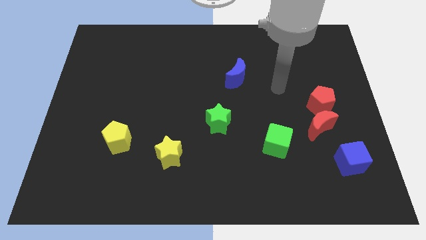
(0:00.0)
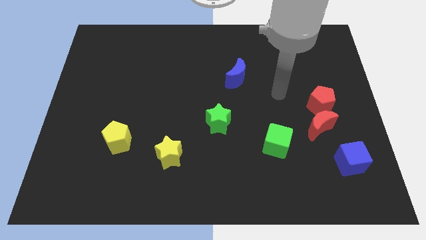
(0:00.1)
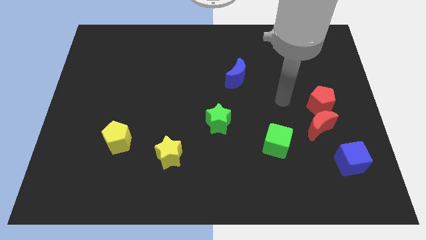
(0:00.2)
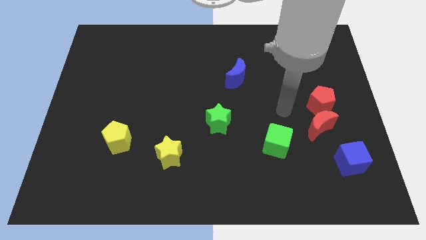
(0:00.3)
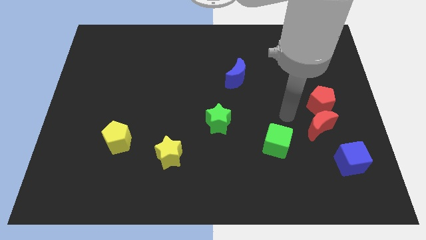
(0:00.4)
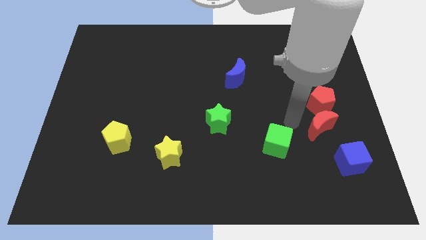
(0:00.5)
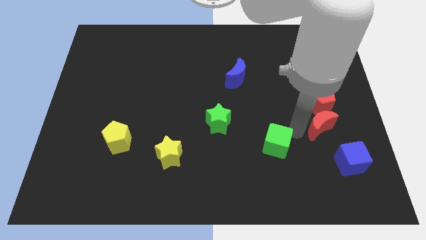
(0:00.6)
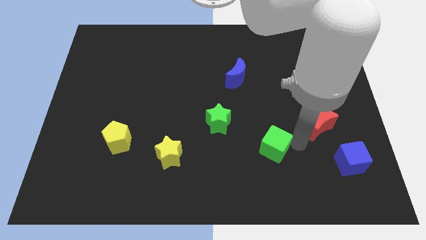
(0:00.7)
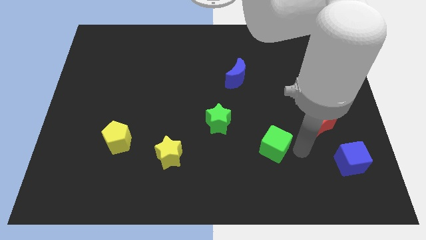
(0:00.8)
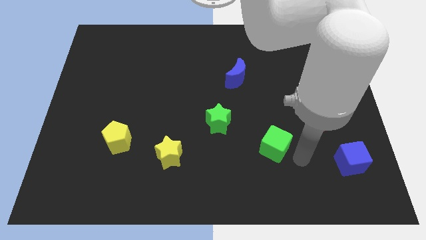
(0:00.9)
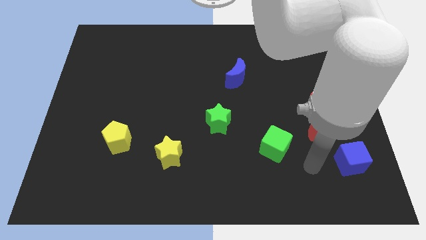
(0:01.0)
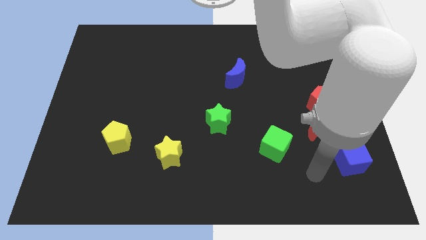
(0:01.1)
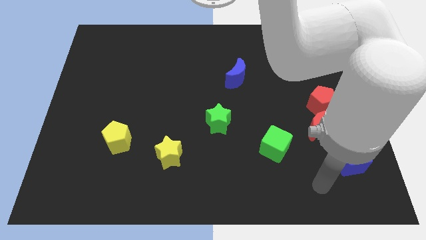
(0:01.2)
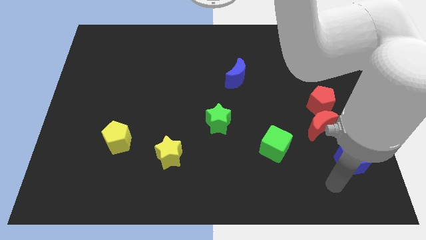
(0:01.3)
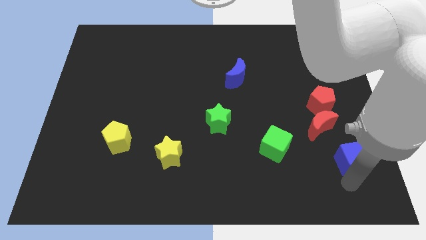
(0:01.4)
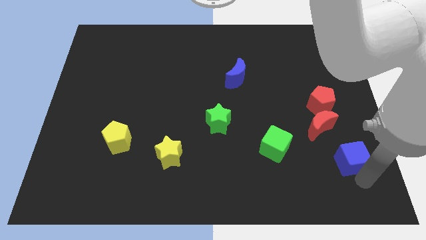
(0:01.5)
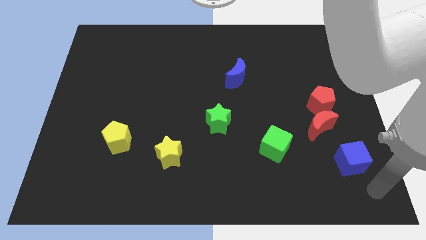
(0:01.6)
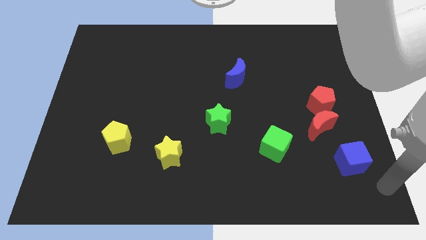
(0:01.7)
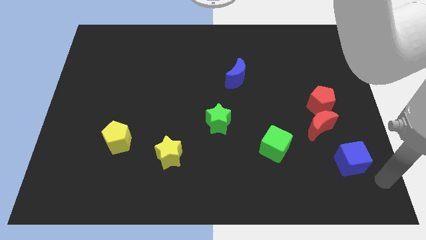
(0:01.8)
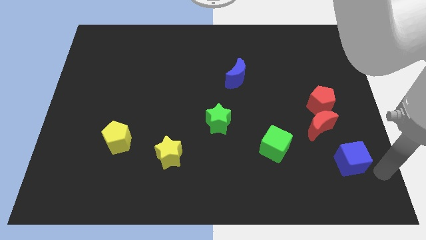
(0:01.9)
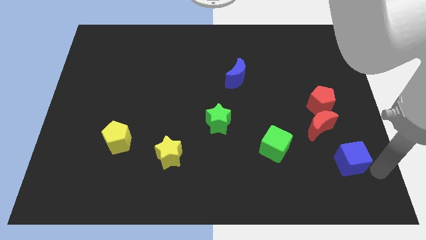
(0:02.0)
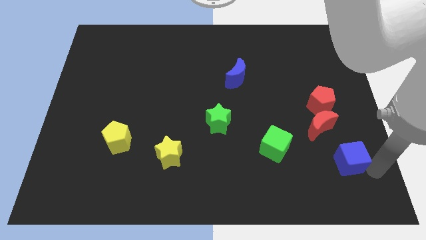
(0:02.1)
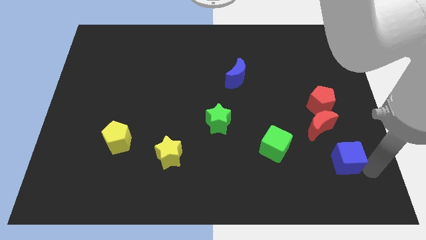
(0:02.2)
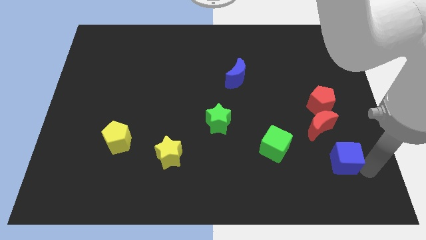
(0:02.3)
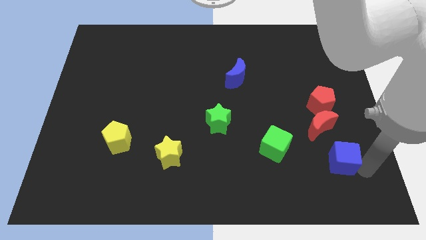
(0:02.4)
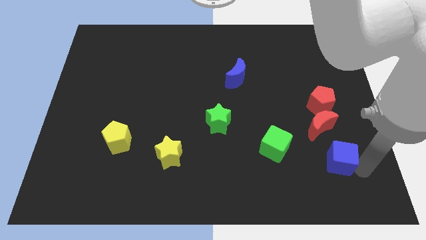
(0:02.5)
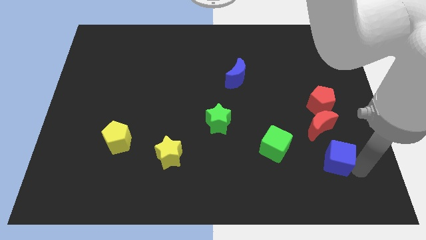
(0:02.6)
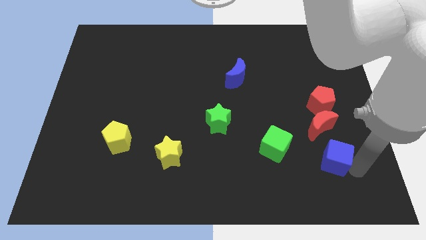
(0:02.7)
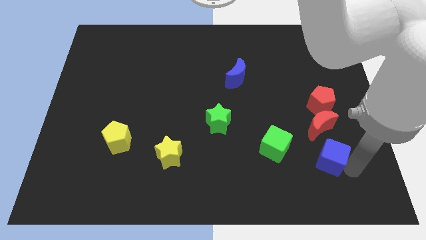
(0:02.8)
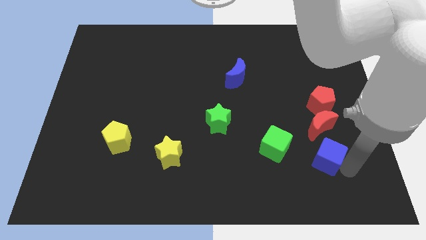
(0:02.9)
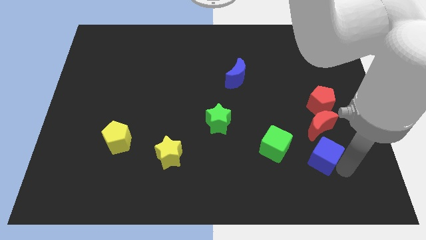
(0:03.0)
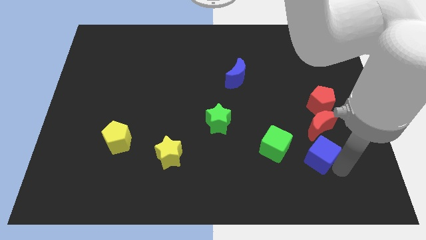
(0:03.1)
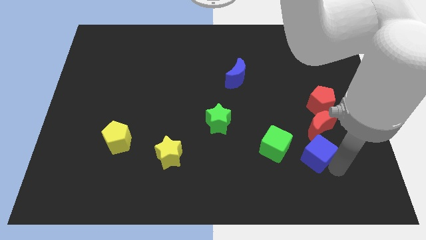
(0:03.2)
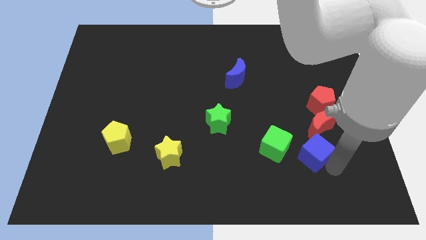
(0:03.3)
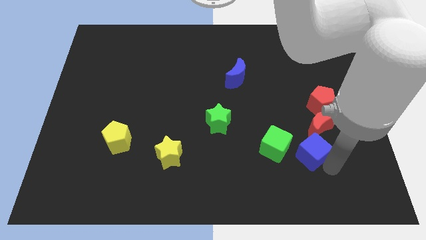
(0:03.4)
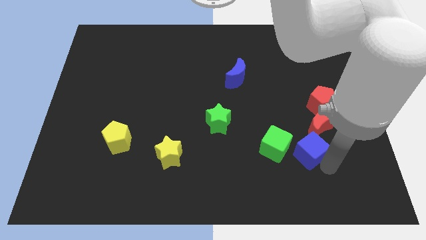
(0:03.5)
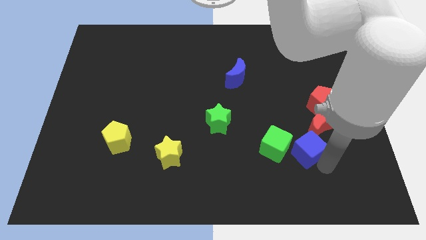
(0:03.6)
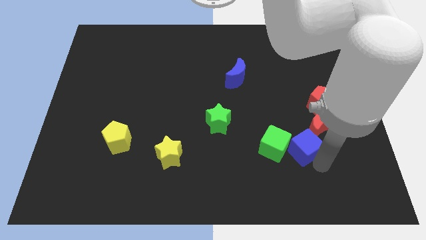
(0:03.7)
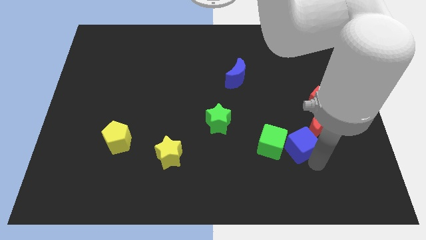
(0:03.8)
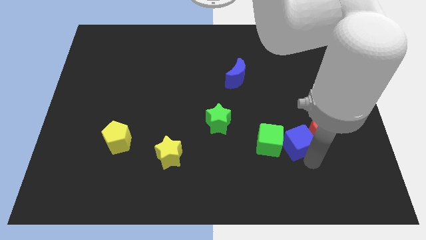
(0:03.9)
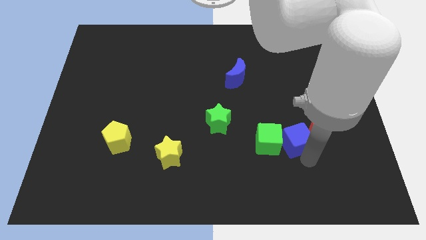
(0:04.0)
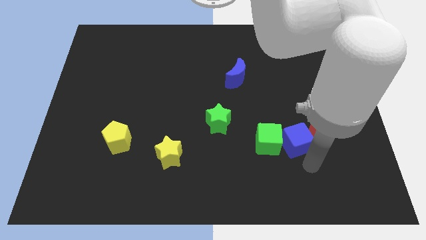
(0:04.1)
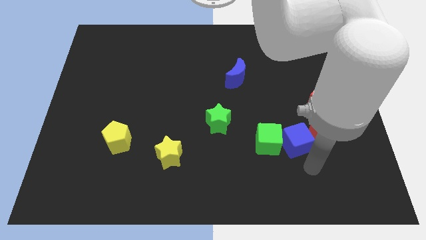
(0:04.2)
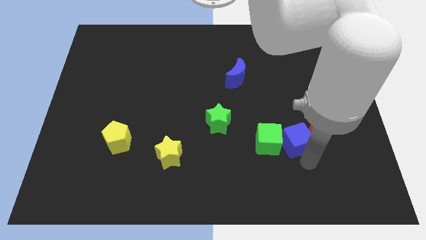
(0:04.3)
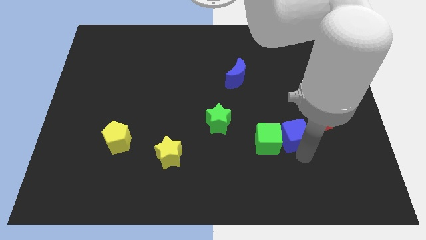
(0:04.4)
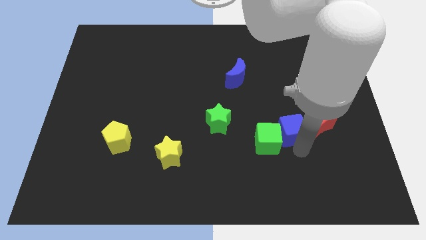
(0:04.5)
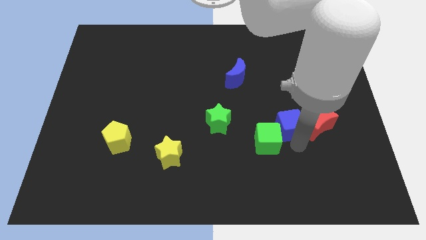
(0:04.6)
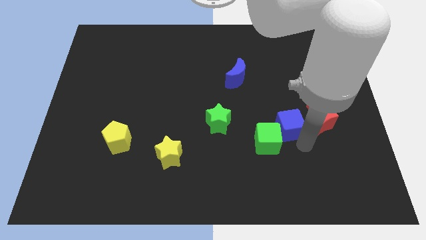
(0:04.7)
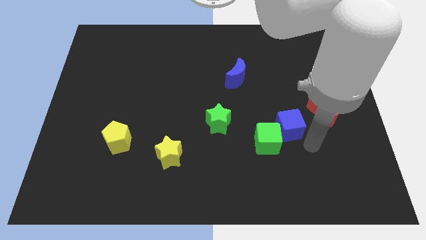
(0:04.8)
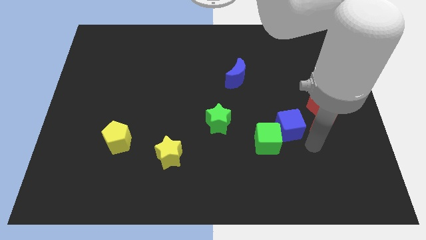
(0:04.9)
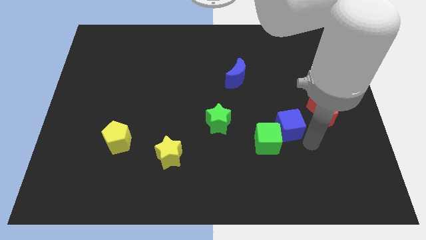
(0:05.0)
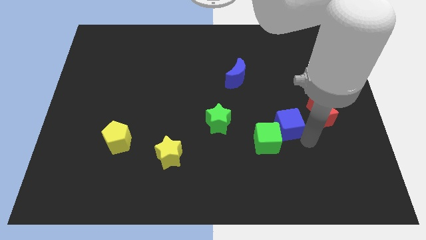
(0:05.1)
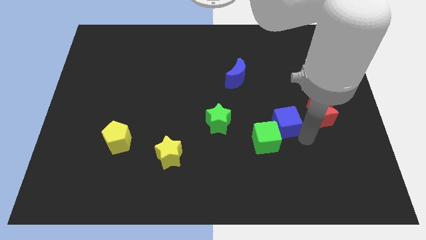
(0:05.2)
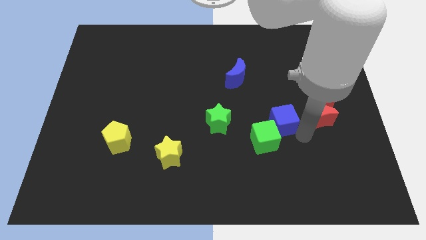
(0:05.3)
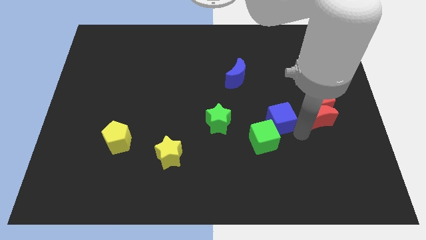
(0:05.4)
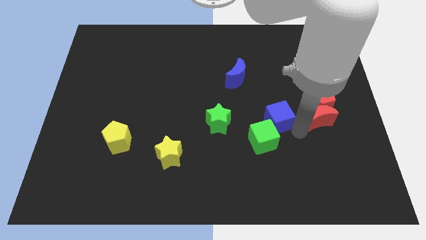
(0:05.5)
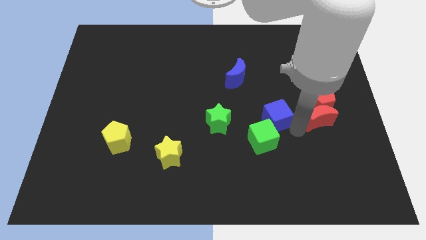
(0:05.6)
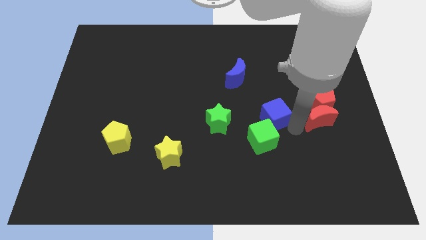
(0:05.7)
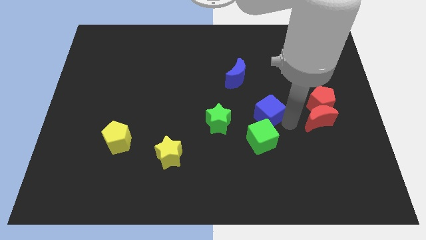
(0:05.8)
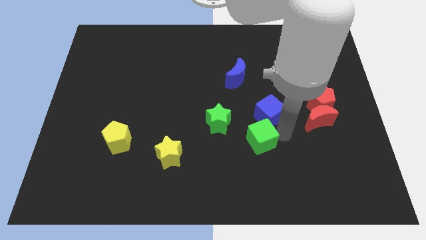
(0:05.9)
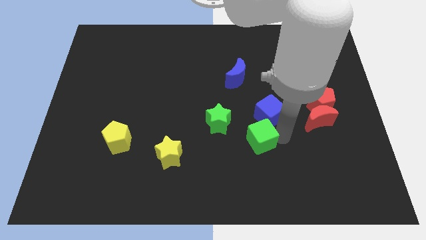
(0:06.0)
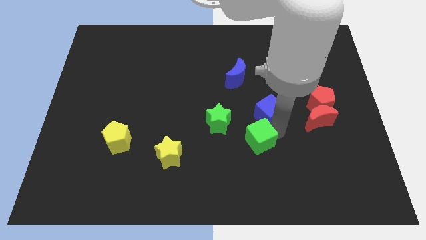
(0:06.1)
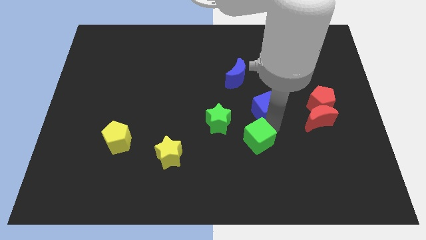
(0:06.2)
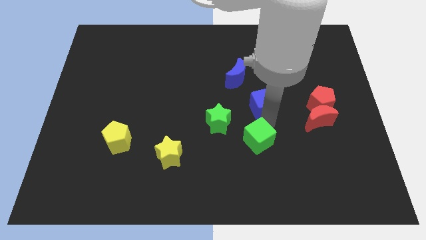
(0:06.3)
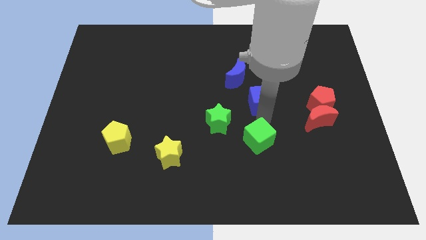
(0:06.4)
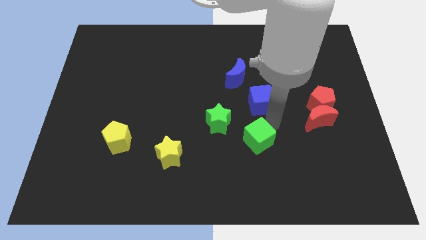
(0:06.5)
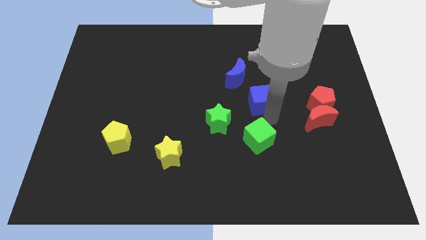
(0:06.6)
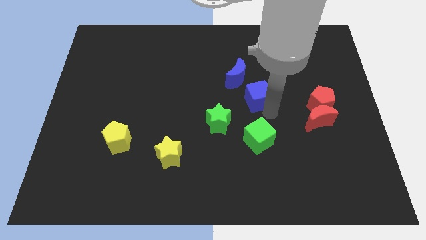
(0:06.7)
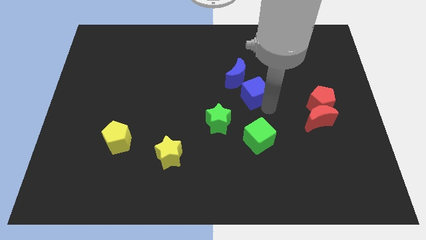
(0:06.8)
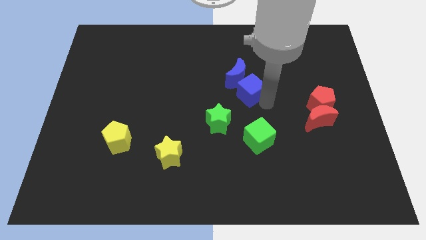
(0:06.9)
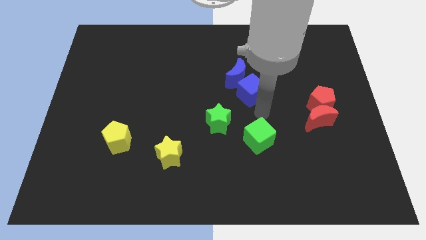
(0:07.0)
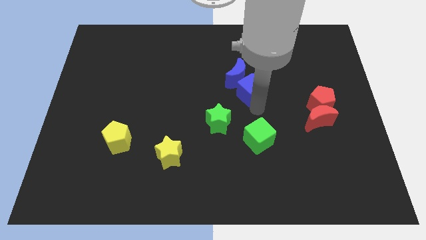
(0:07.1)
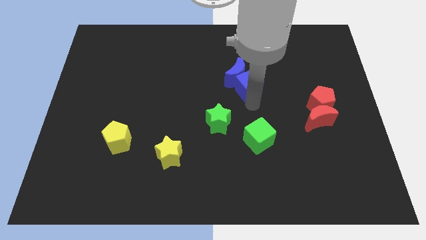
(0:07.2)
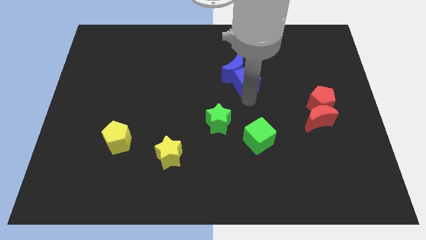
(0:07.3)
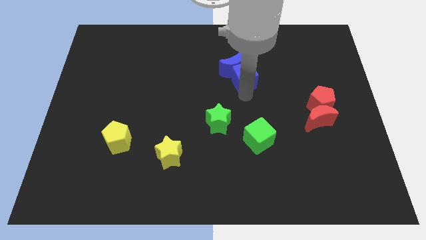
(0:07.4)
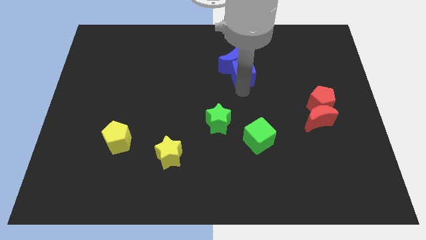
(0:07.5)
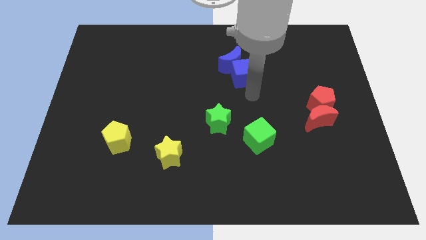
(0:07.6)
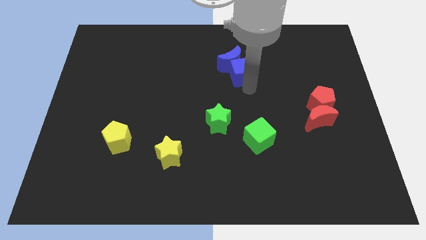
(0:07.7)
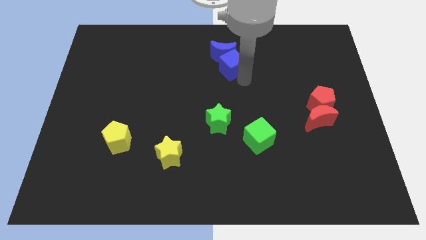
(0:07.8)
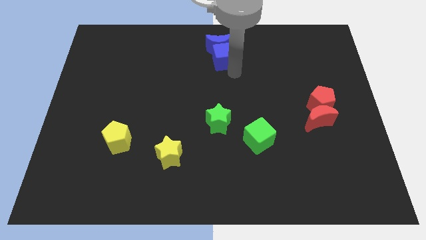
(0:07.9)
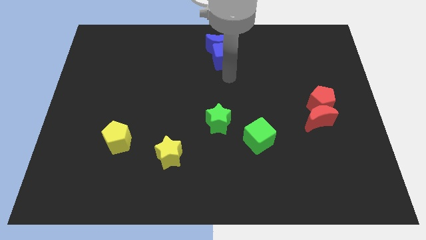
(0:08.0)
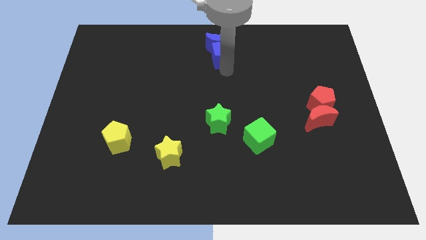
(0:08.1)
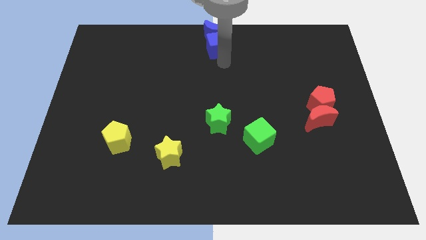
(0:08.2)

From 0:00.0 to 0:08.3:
put the blue cube to the top side
